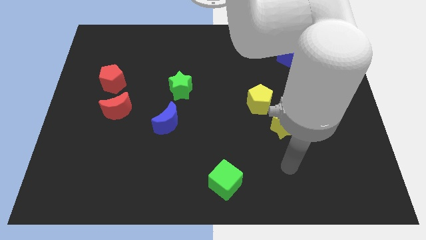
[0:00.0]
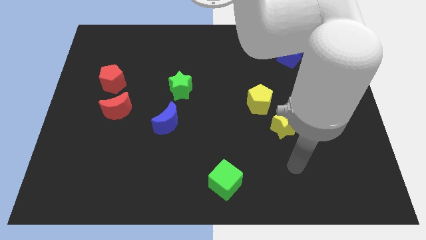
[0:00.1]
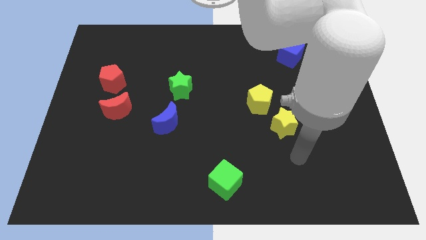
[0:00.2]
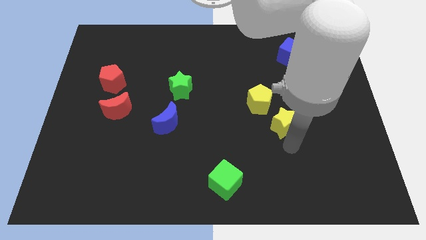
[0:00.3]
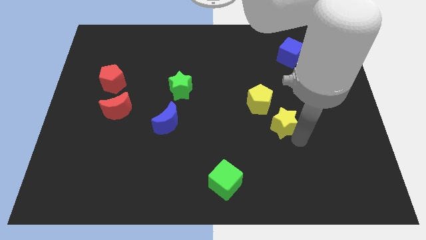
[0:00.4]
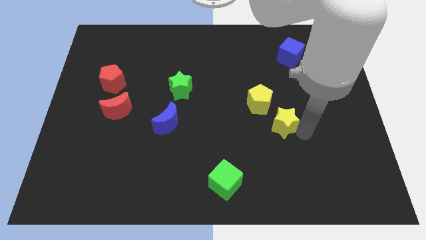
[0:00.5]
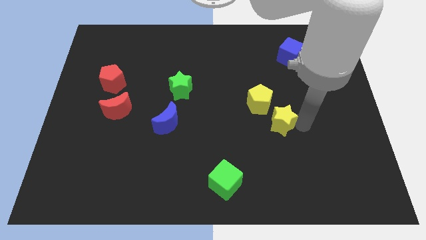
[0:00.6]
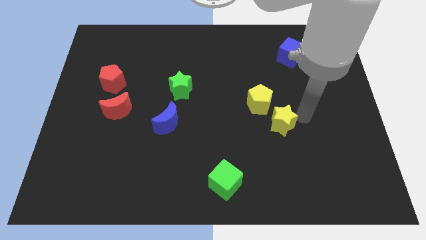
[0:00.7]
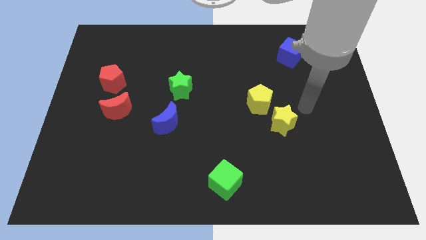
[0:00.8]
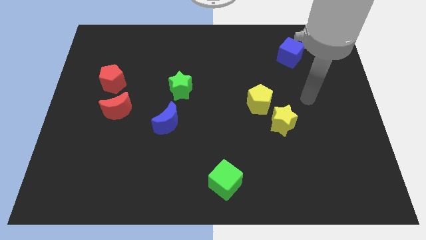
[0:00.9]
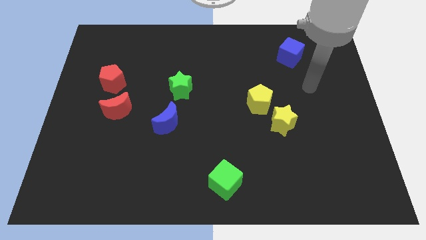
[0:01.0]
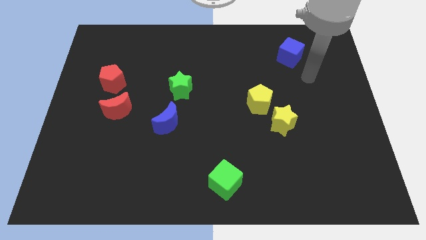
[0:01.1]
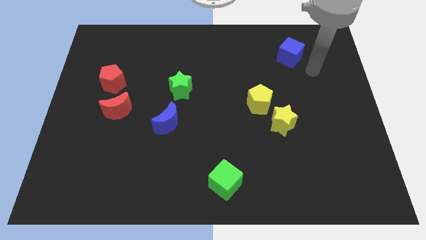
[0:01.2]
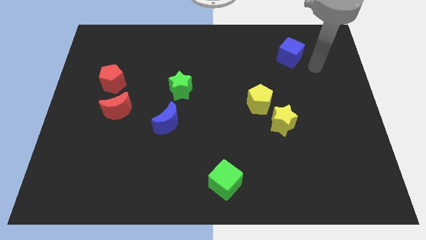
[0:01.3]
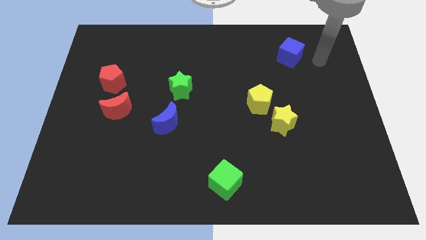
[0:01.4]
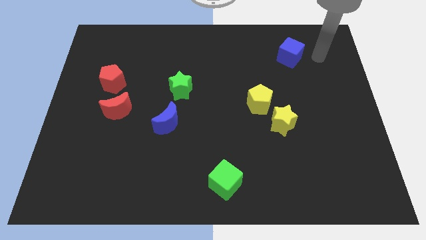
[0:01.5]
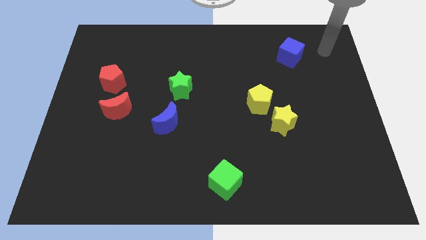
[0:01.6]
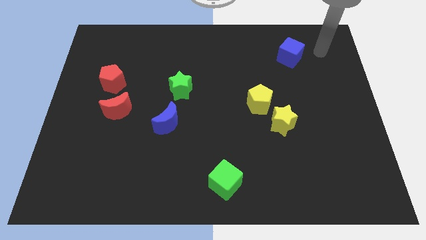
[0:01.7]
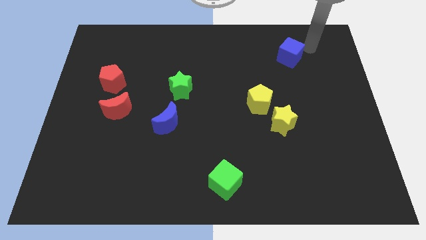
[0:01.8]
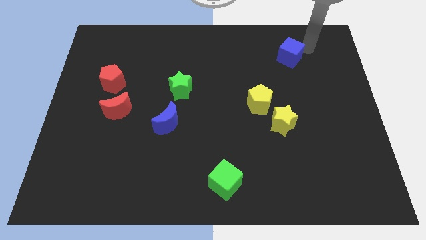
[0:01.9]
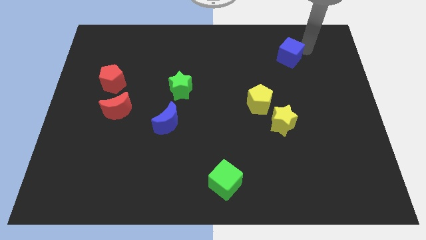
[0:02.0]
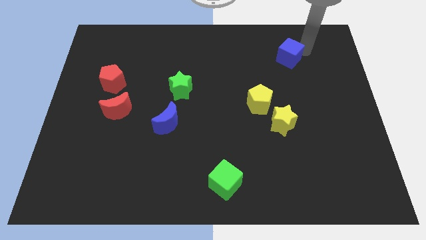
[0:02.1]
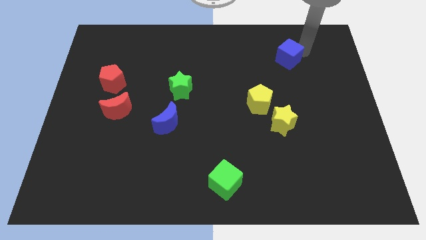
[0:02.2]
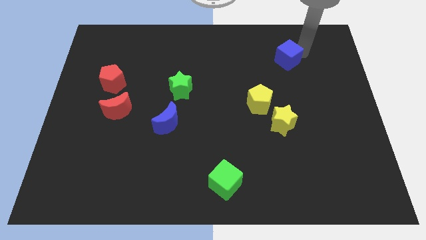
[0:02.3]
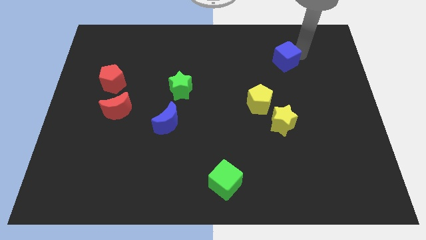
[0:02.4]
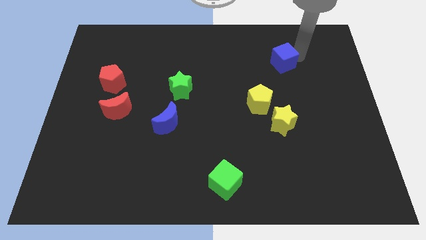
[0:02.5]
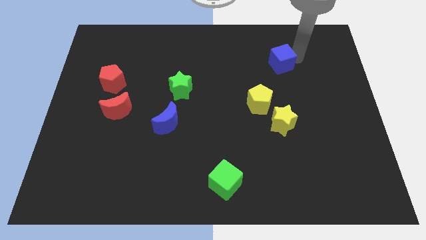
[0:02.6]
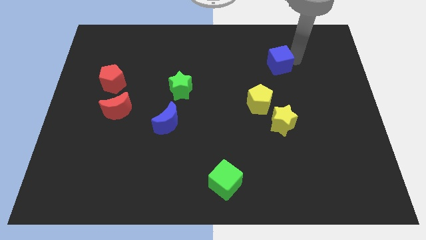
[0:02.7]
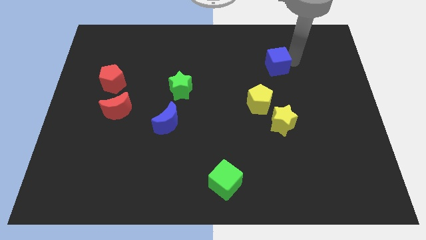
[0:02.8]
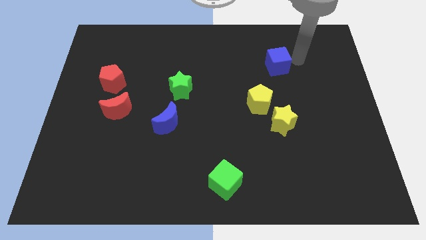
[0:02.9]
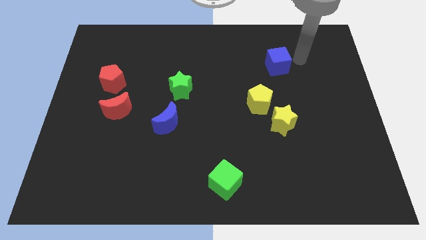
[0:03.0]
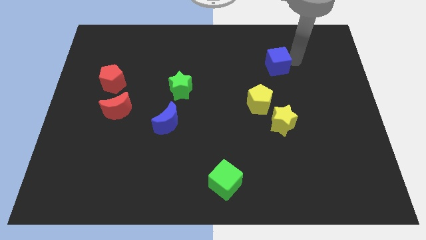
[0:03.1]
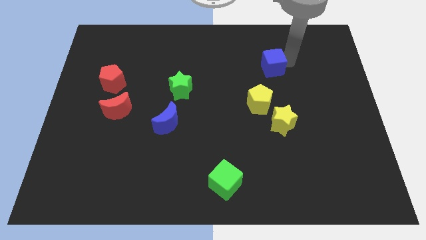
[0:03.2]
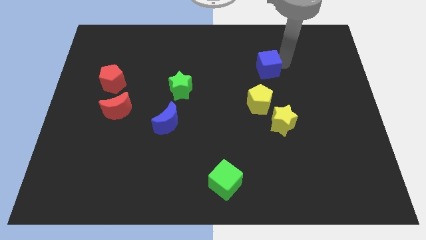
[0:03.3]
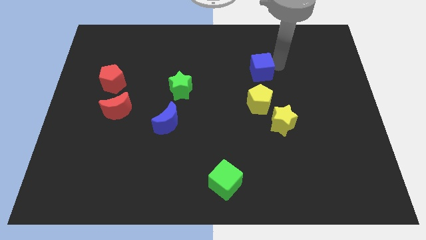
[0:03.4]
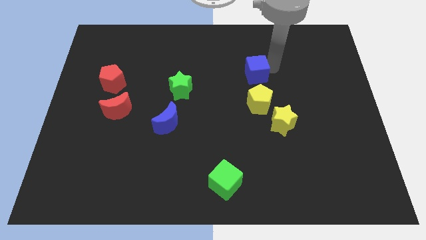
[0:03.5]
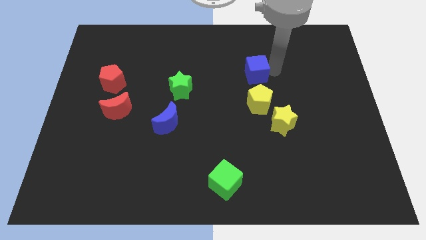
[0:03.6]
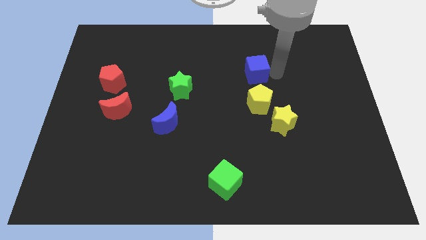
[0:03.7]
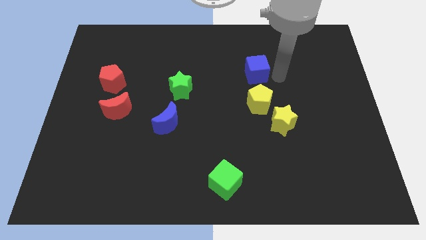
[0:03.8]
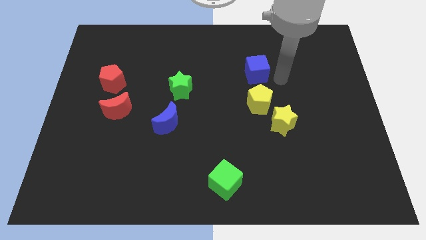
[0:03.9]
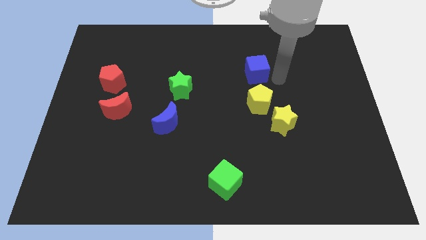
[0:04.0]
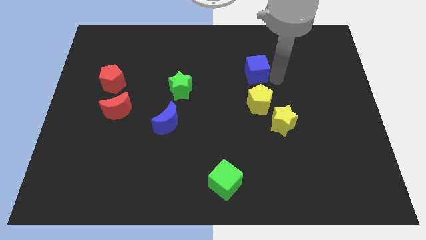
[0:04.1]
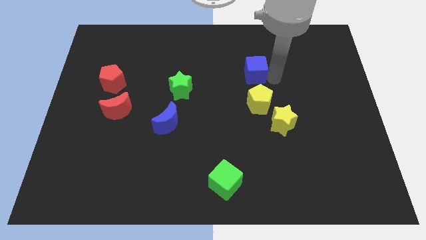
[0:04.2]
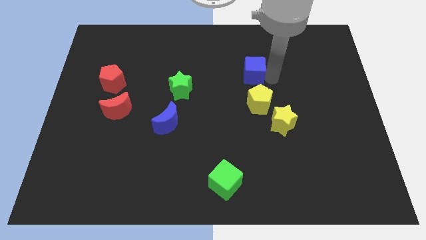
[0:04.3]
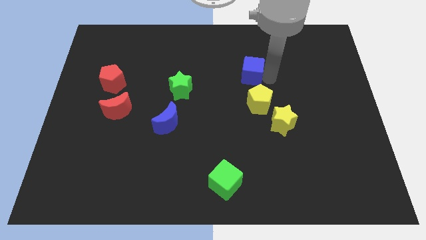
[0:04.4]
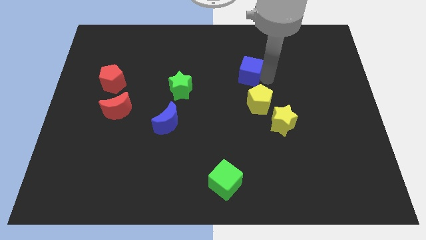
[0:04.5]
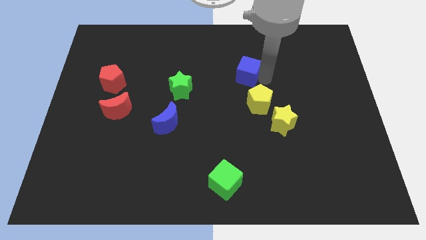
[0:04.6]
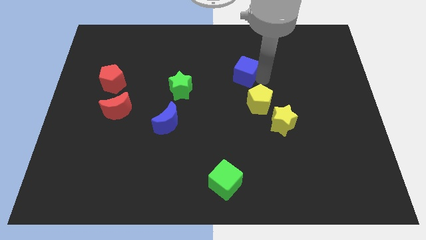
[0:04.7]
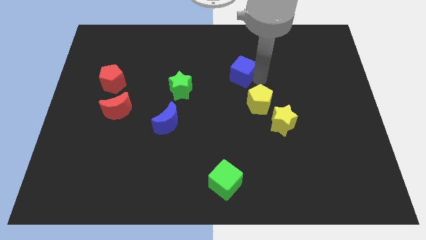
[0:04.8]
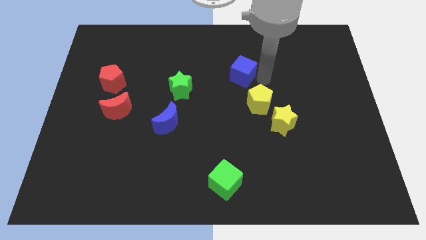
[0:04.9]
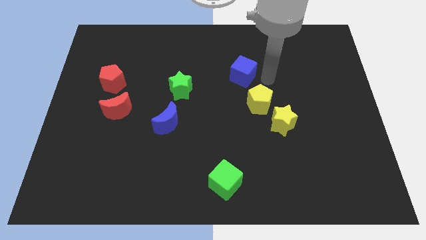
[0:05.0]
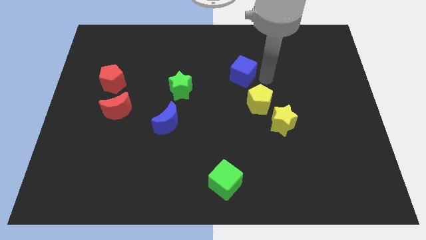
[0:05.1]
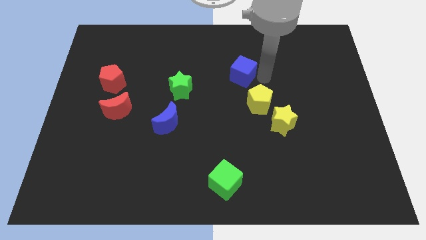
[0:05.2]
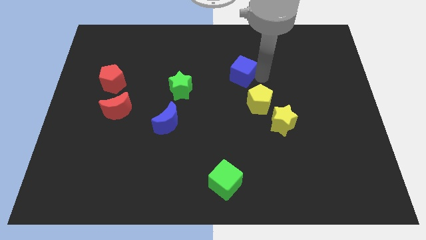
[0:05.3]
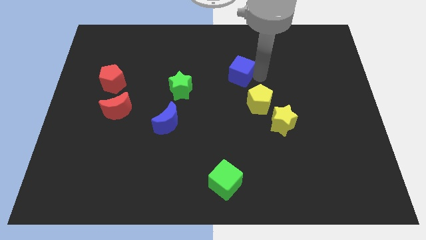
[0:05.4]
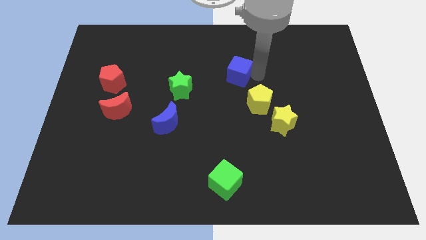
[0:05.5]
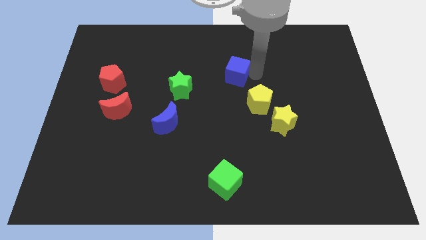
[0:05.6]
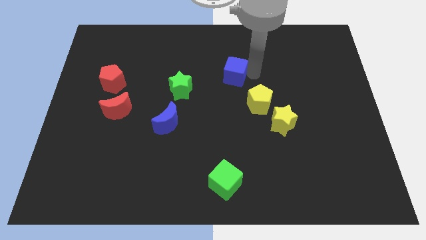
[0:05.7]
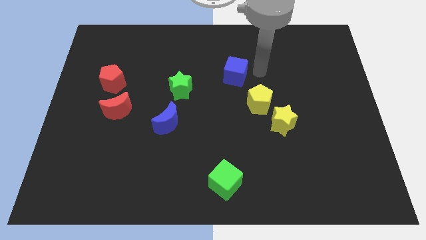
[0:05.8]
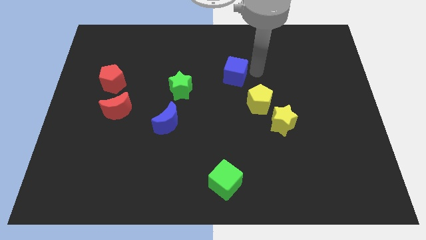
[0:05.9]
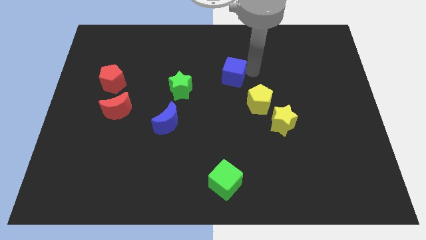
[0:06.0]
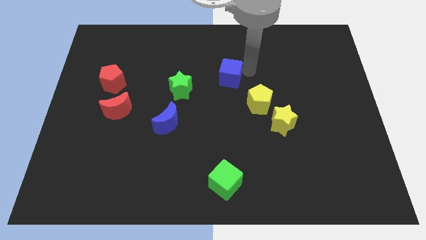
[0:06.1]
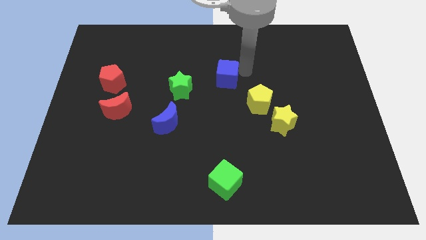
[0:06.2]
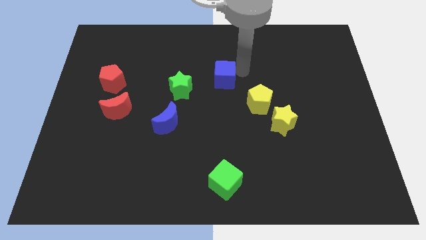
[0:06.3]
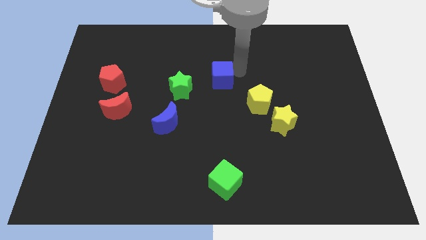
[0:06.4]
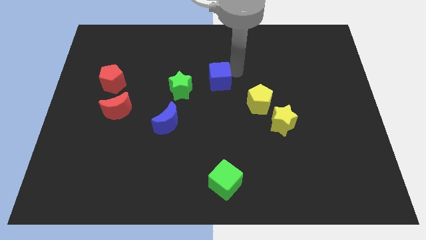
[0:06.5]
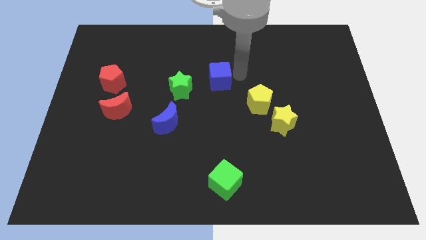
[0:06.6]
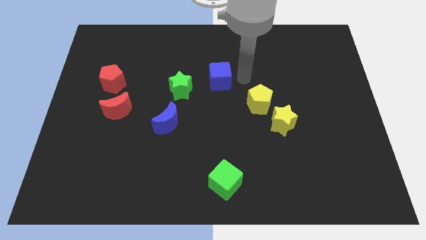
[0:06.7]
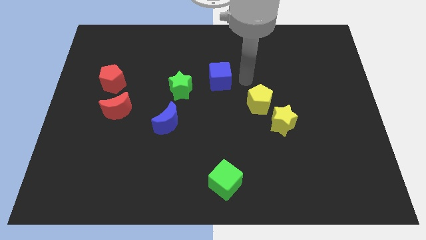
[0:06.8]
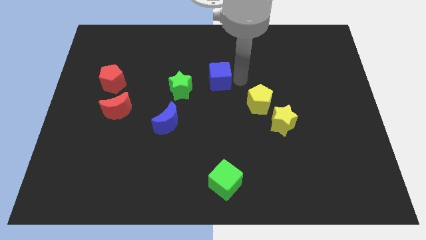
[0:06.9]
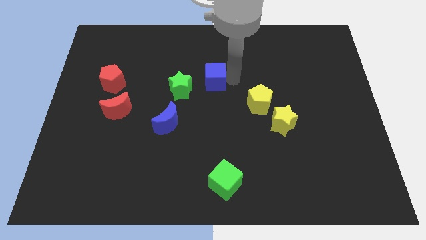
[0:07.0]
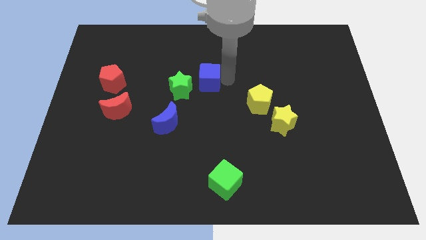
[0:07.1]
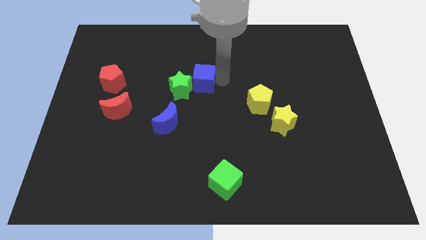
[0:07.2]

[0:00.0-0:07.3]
slide the blue cube close to the green star
